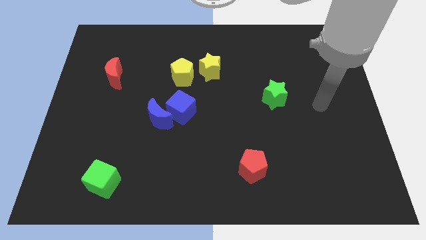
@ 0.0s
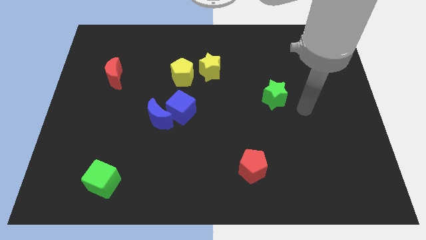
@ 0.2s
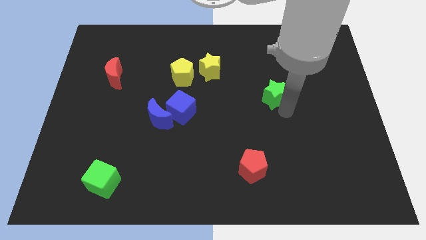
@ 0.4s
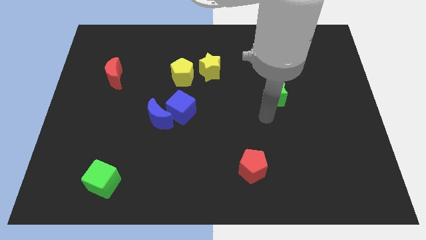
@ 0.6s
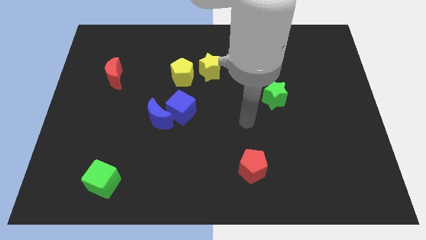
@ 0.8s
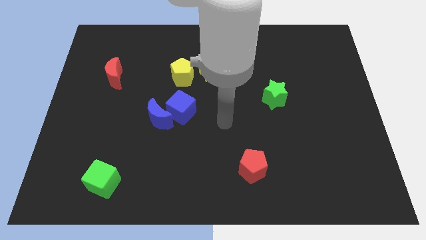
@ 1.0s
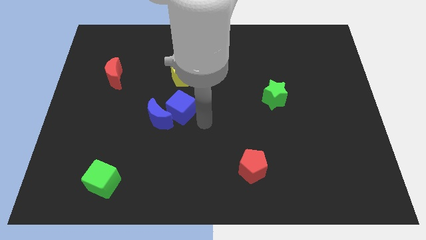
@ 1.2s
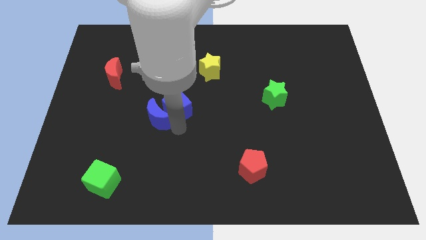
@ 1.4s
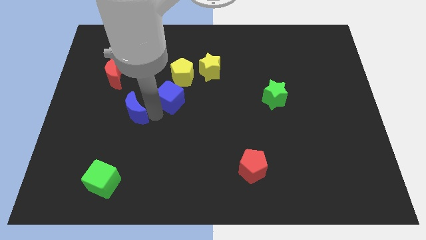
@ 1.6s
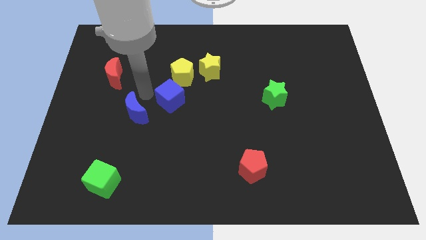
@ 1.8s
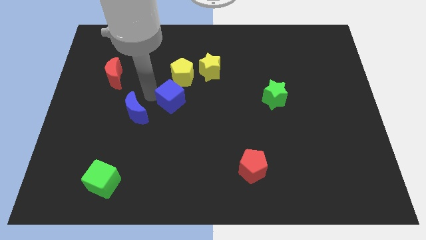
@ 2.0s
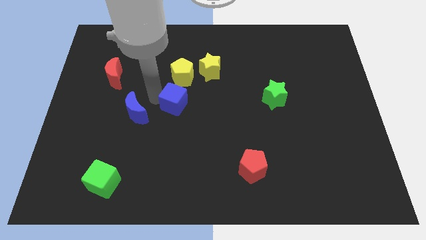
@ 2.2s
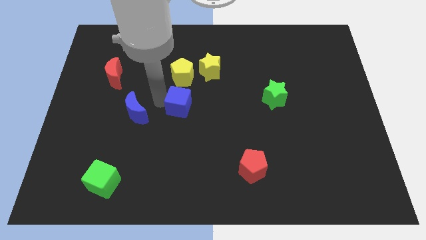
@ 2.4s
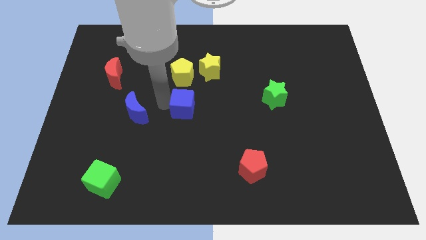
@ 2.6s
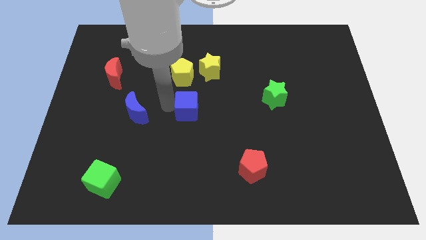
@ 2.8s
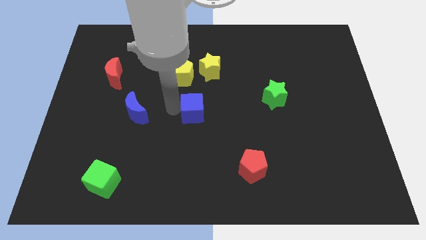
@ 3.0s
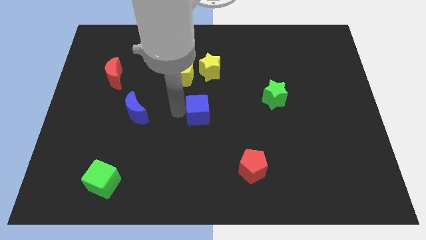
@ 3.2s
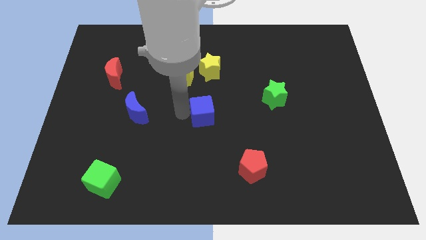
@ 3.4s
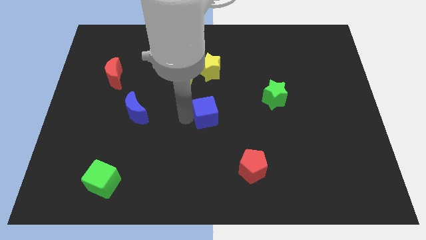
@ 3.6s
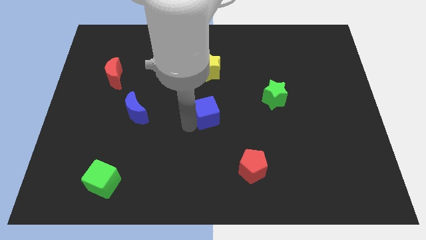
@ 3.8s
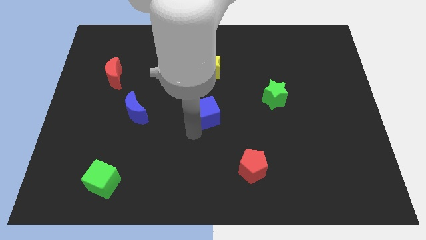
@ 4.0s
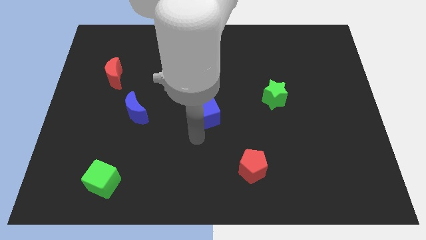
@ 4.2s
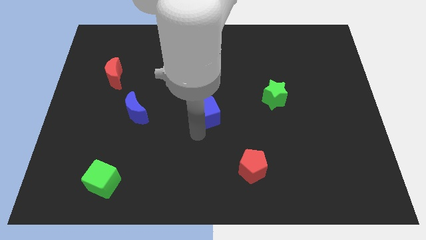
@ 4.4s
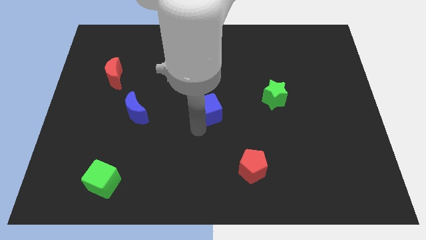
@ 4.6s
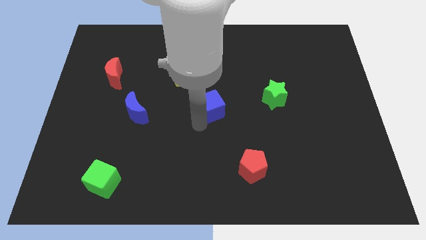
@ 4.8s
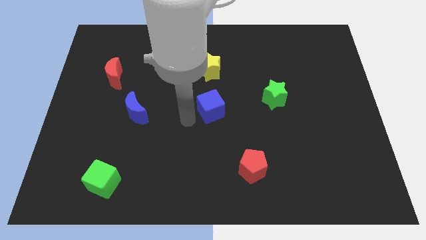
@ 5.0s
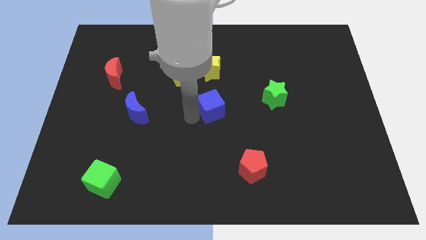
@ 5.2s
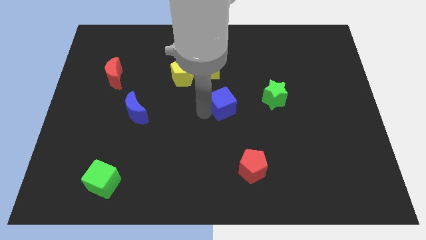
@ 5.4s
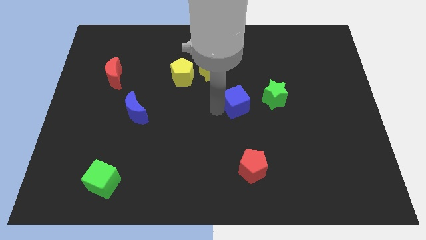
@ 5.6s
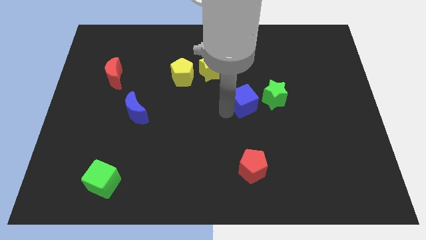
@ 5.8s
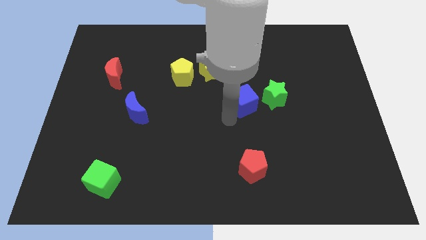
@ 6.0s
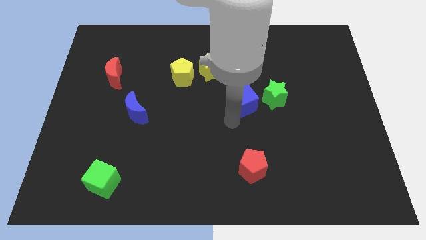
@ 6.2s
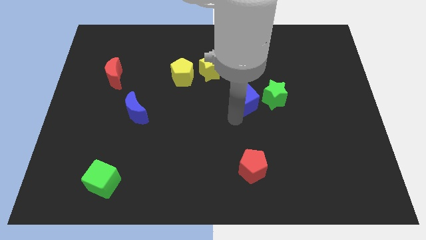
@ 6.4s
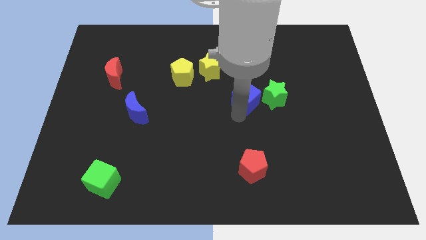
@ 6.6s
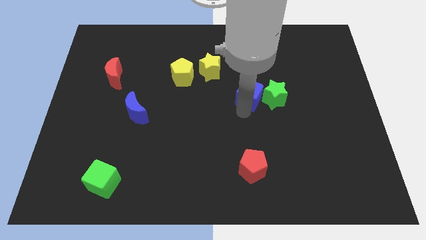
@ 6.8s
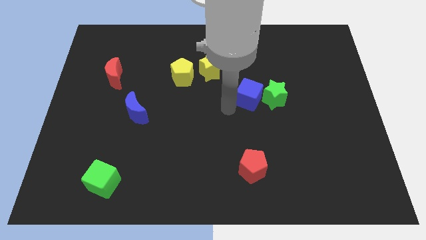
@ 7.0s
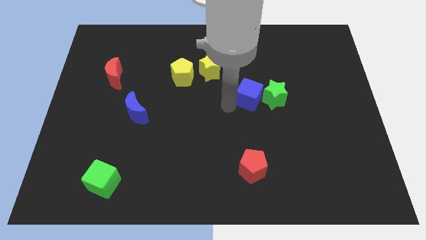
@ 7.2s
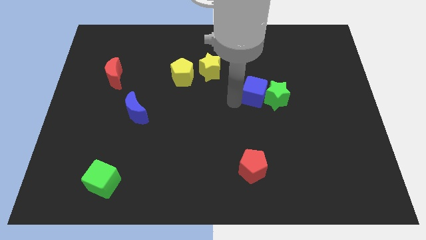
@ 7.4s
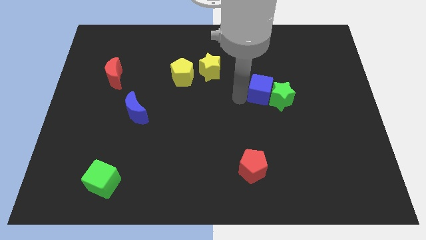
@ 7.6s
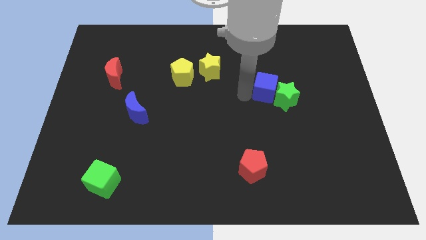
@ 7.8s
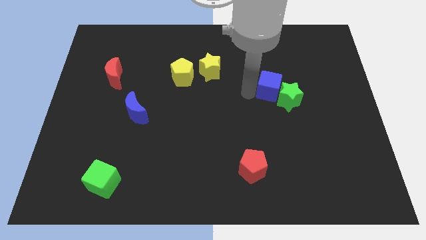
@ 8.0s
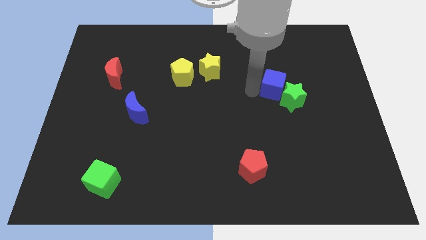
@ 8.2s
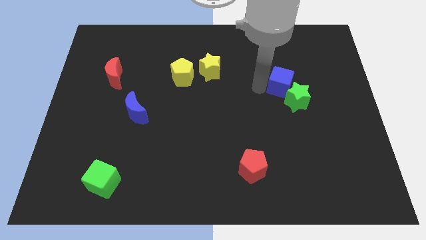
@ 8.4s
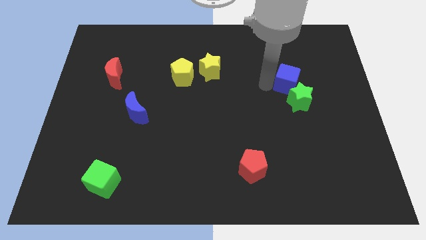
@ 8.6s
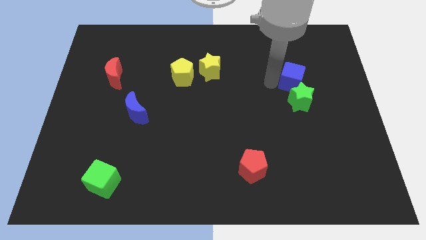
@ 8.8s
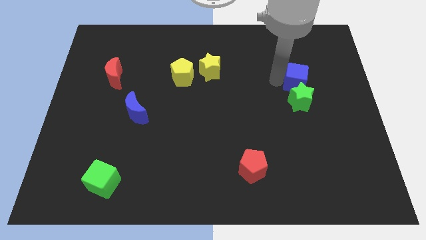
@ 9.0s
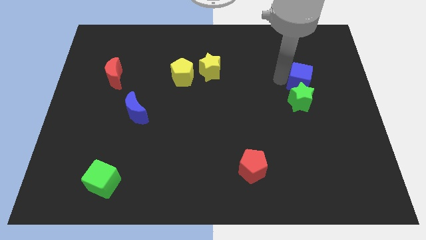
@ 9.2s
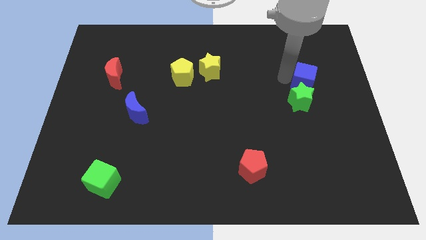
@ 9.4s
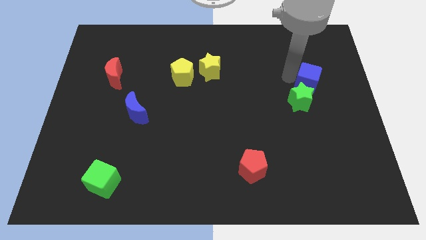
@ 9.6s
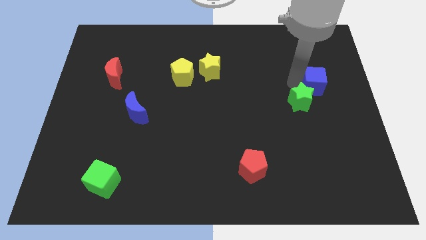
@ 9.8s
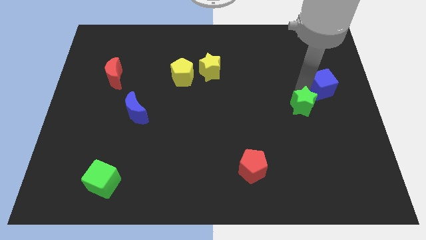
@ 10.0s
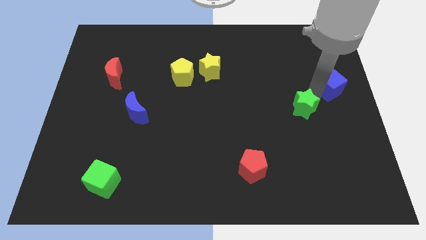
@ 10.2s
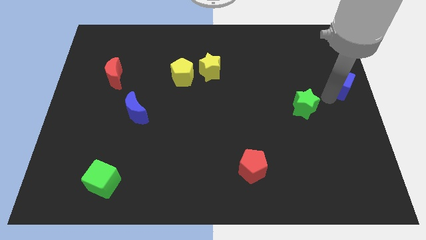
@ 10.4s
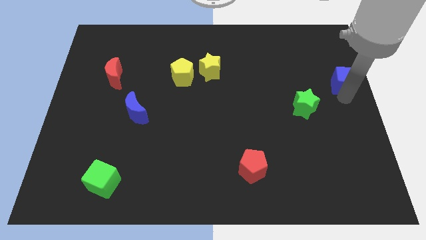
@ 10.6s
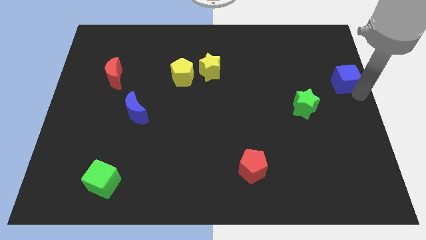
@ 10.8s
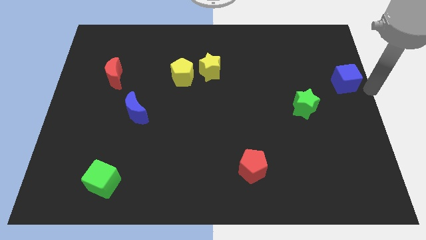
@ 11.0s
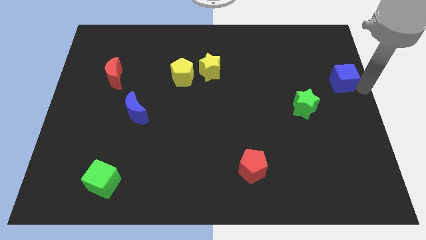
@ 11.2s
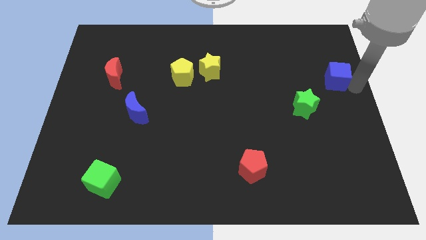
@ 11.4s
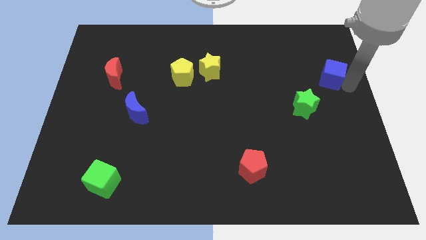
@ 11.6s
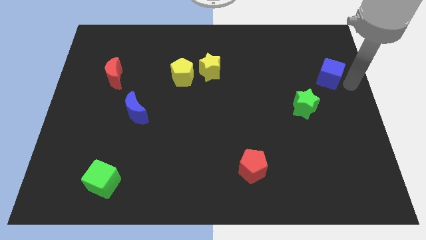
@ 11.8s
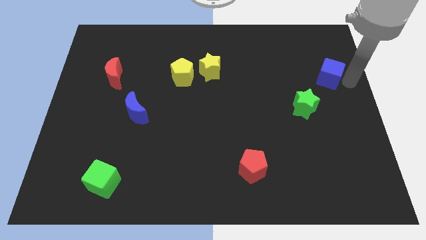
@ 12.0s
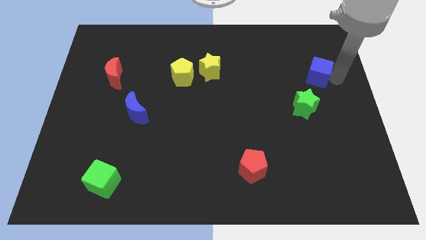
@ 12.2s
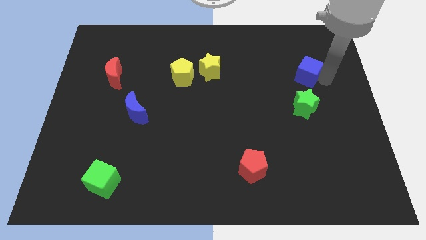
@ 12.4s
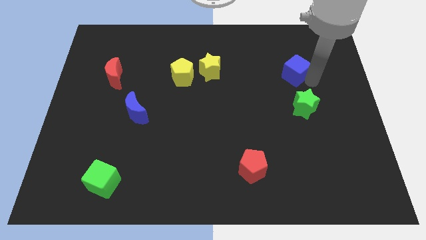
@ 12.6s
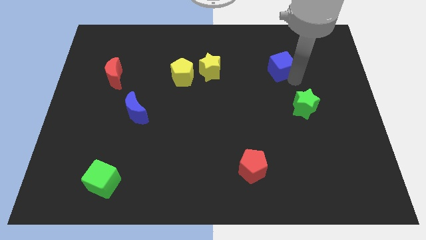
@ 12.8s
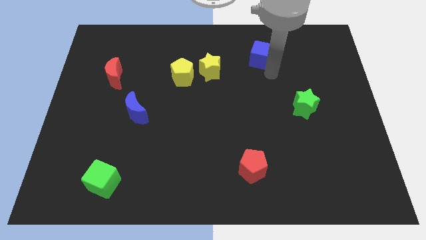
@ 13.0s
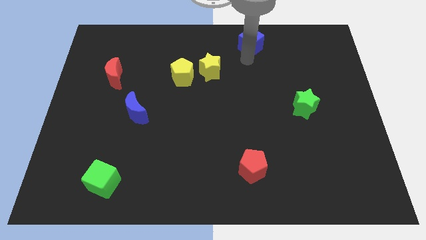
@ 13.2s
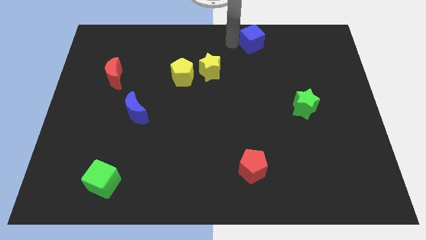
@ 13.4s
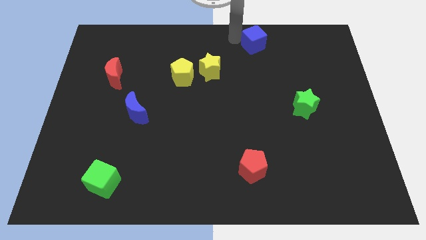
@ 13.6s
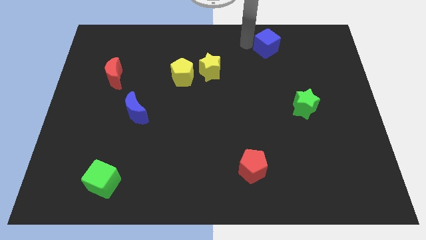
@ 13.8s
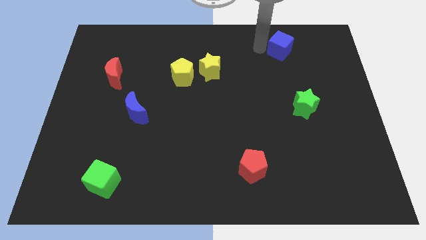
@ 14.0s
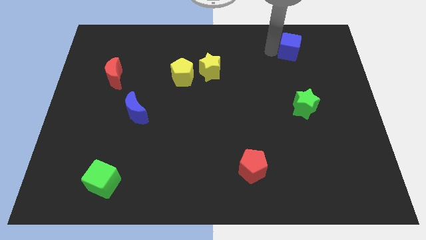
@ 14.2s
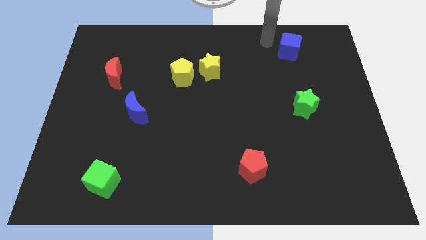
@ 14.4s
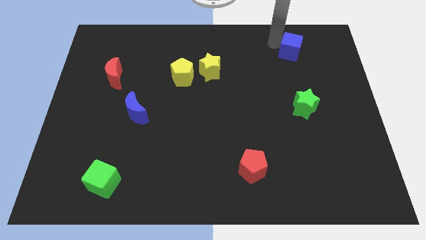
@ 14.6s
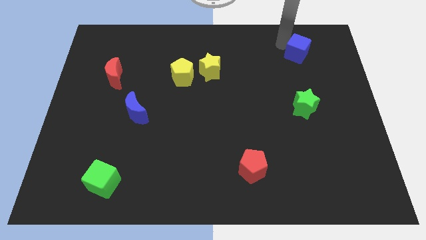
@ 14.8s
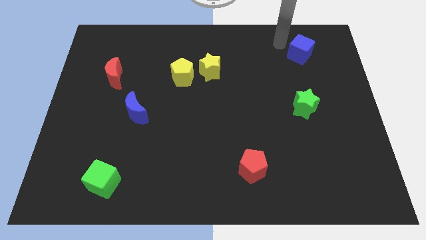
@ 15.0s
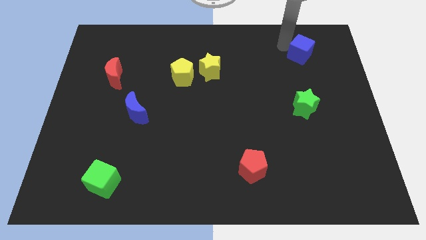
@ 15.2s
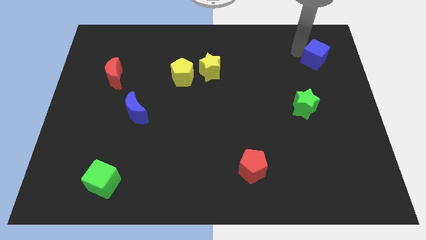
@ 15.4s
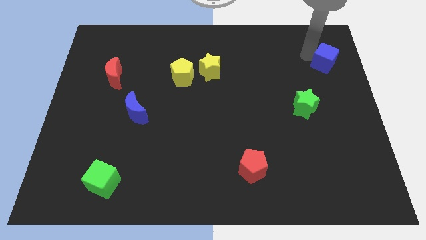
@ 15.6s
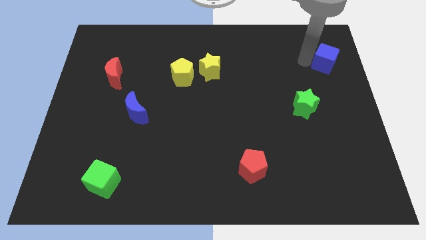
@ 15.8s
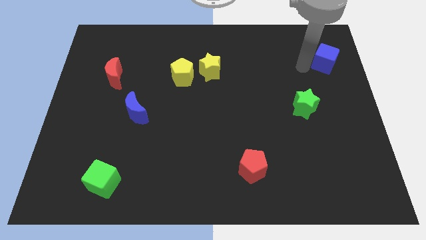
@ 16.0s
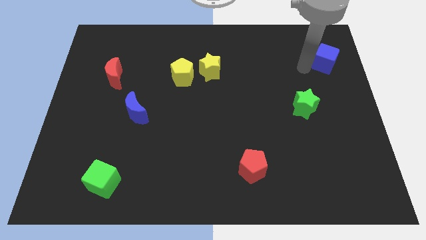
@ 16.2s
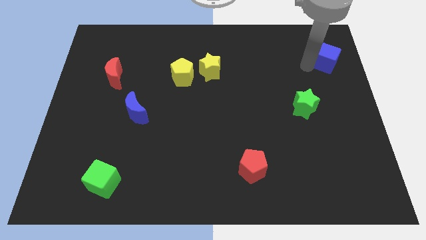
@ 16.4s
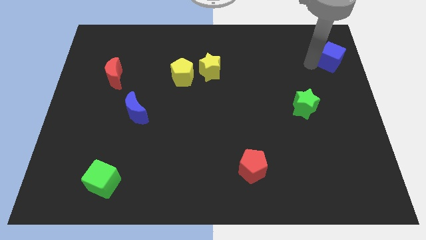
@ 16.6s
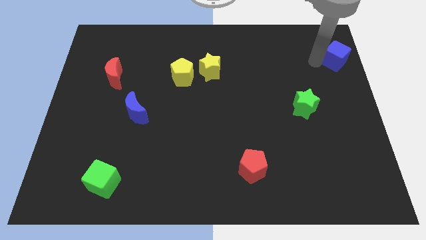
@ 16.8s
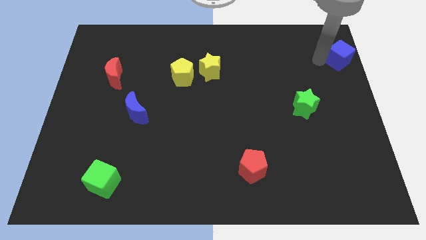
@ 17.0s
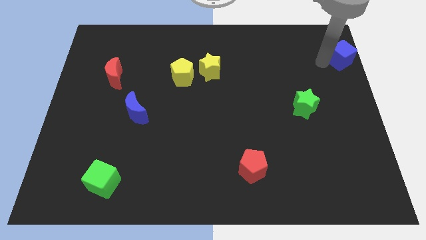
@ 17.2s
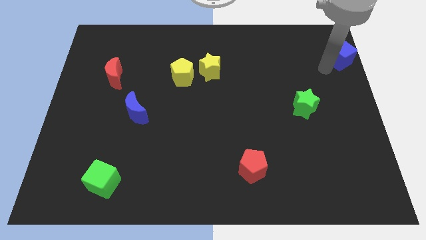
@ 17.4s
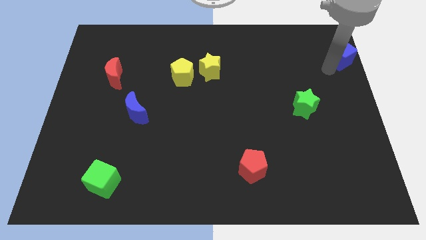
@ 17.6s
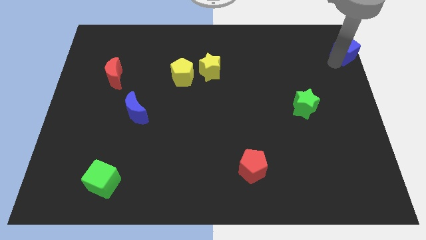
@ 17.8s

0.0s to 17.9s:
slide the blue cube to the top right
